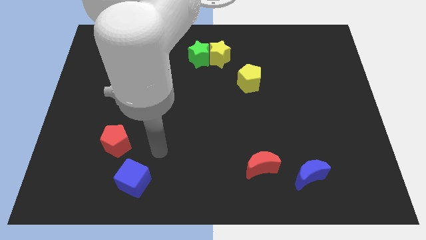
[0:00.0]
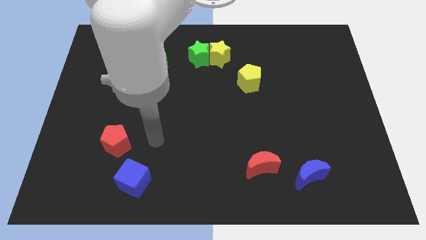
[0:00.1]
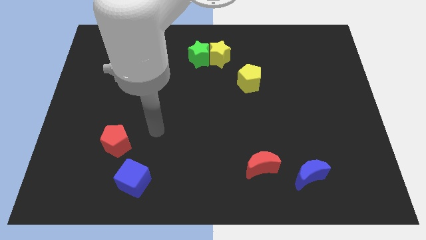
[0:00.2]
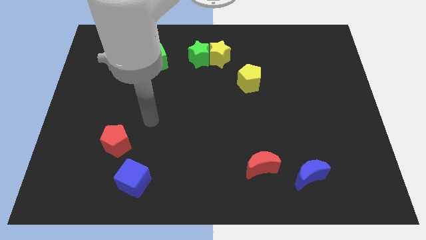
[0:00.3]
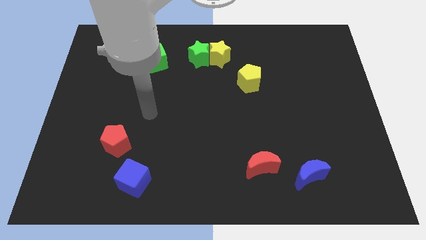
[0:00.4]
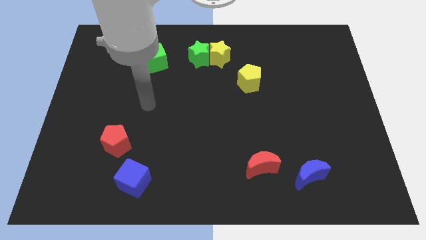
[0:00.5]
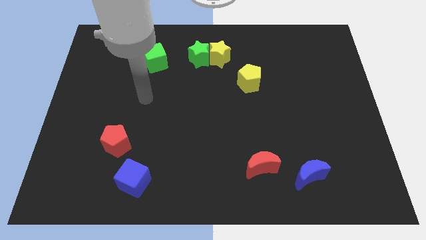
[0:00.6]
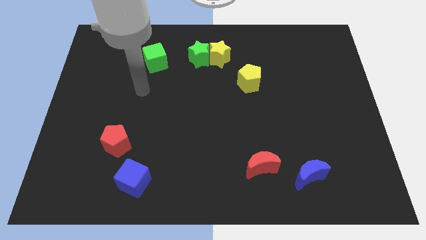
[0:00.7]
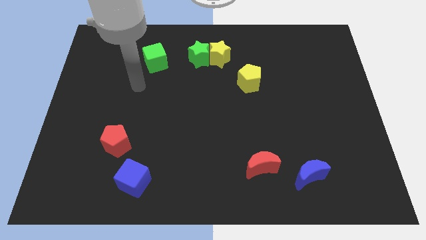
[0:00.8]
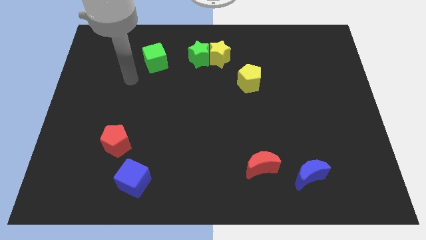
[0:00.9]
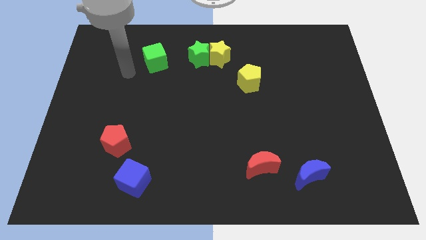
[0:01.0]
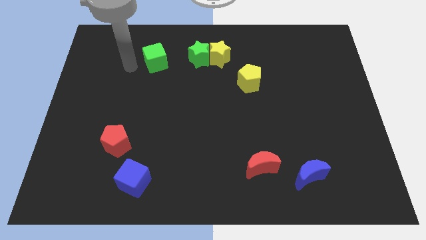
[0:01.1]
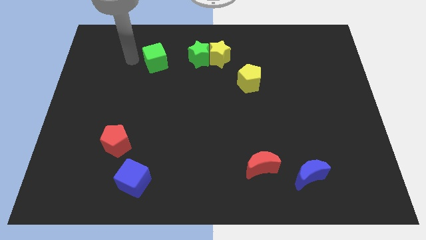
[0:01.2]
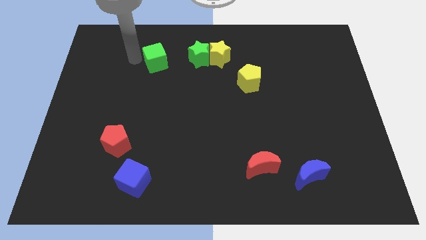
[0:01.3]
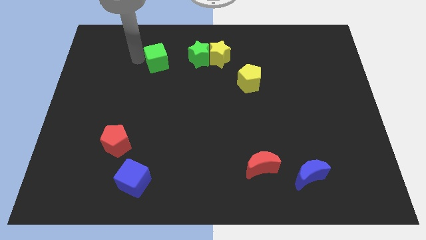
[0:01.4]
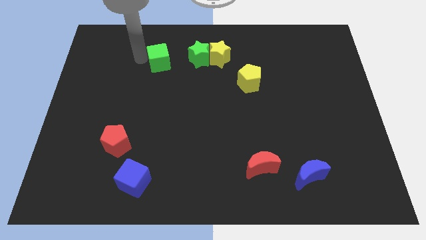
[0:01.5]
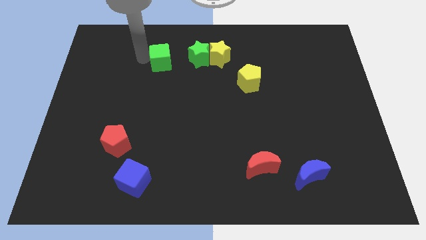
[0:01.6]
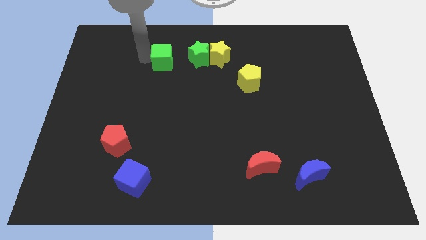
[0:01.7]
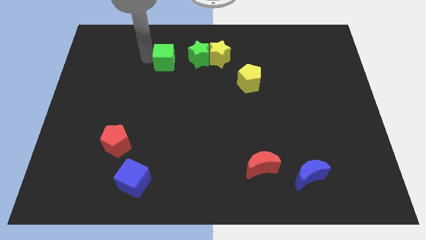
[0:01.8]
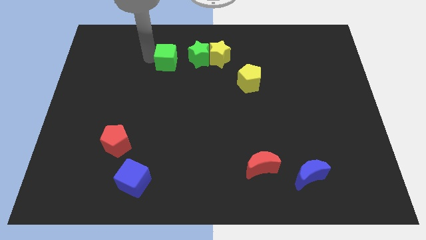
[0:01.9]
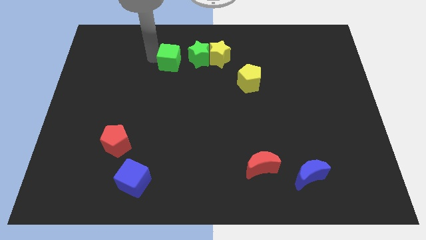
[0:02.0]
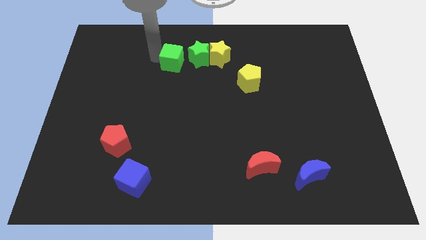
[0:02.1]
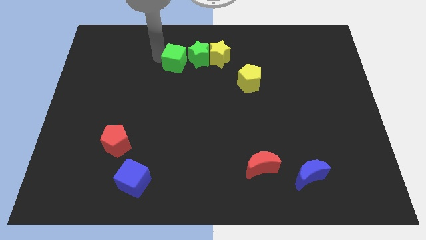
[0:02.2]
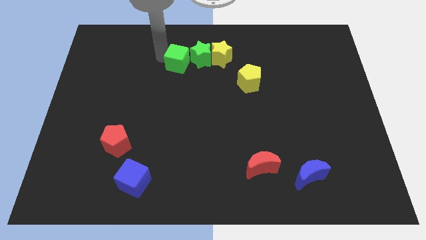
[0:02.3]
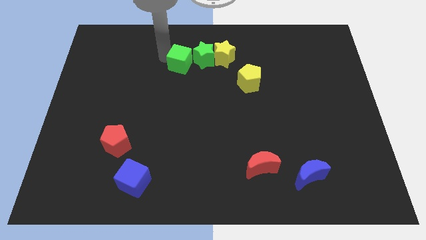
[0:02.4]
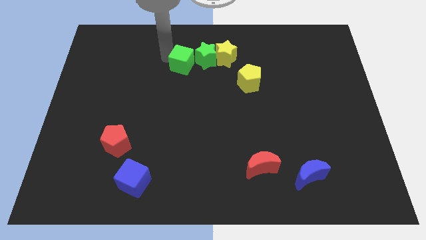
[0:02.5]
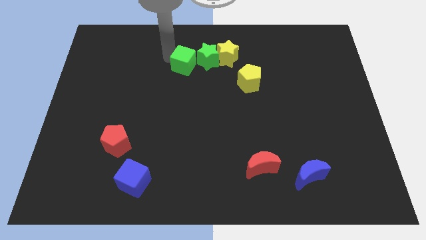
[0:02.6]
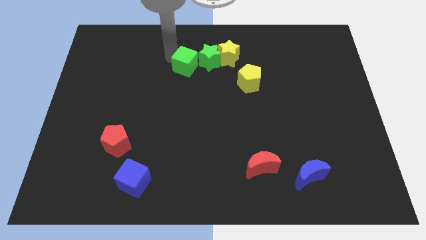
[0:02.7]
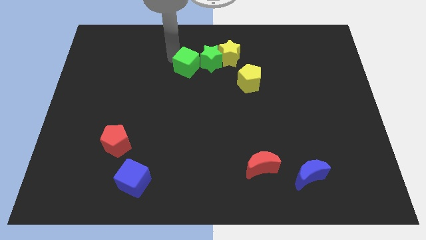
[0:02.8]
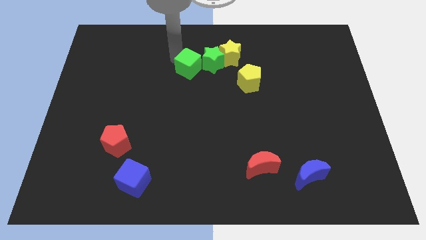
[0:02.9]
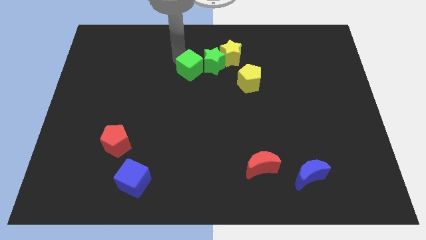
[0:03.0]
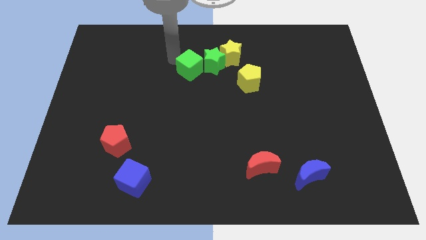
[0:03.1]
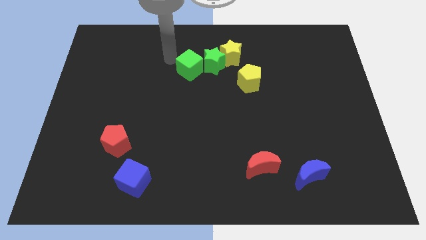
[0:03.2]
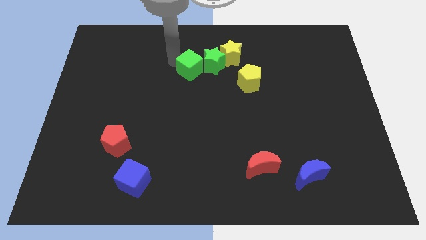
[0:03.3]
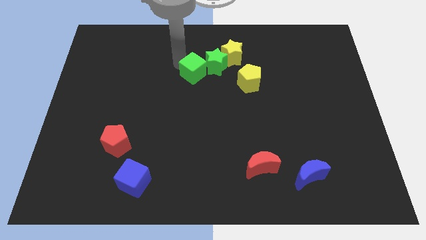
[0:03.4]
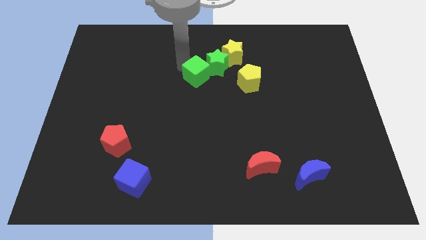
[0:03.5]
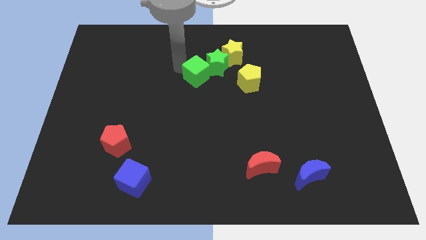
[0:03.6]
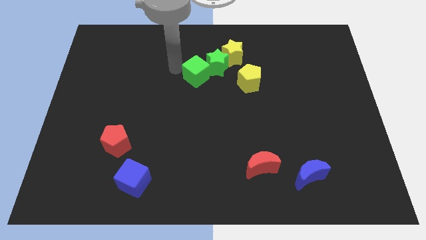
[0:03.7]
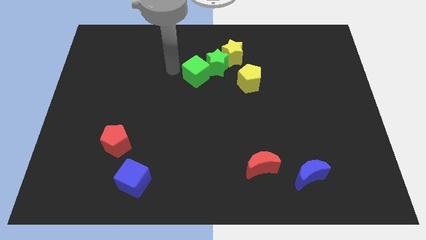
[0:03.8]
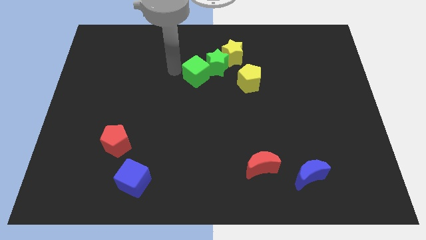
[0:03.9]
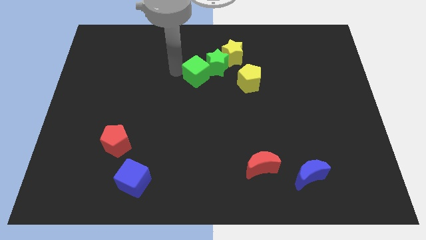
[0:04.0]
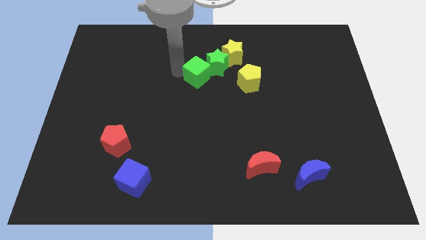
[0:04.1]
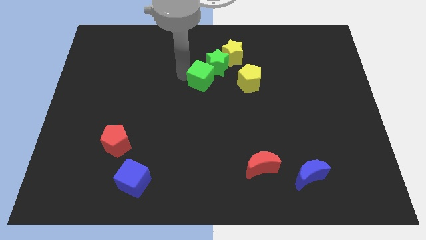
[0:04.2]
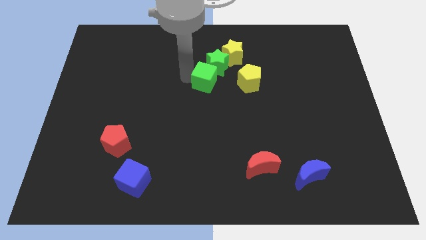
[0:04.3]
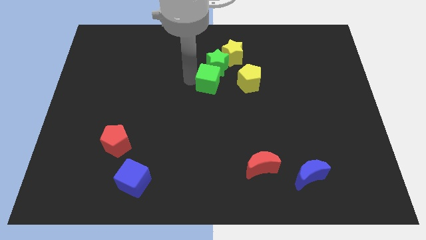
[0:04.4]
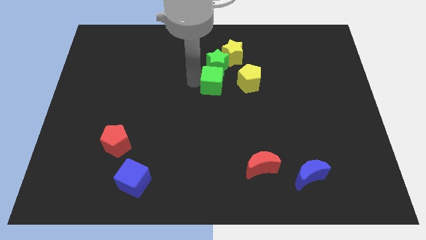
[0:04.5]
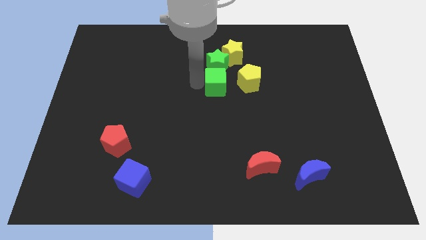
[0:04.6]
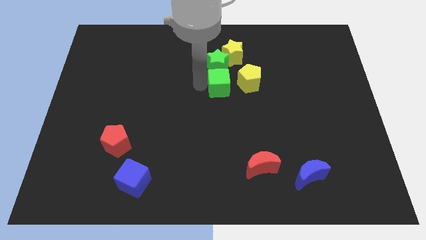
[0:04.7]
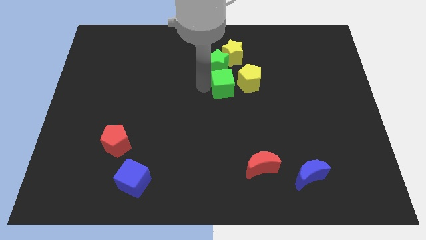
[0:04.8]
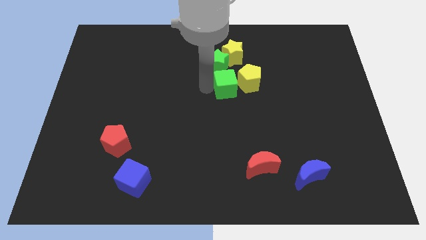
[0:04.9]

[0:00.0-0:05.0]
slide the green cube close to the yellow pentagon

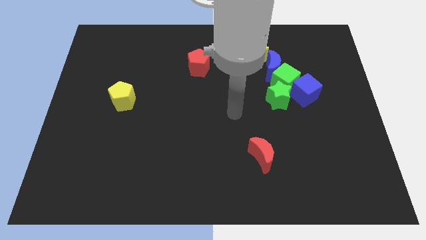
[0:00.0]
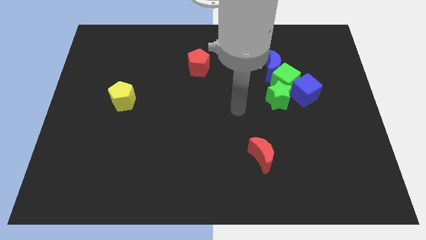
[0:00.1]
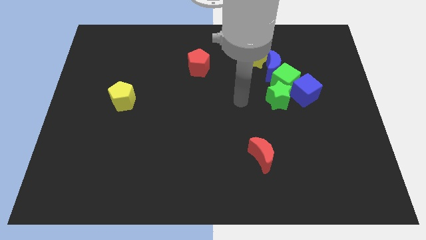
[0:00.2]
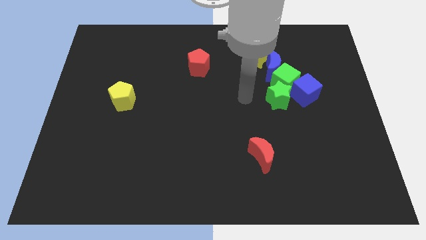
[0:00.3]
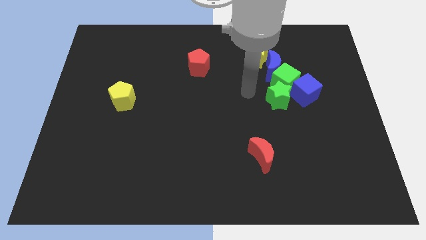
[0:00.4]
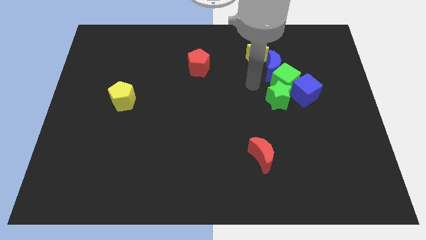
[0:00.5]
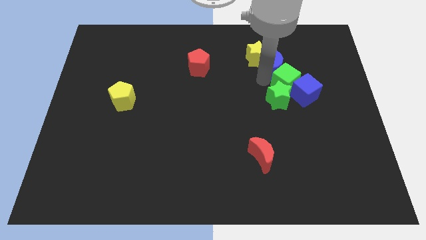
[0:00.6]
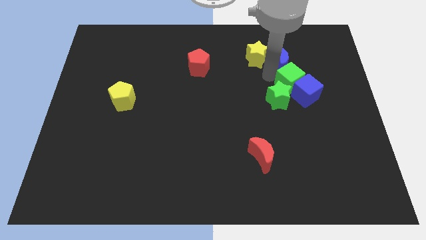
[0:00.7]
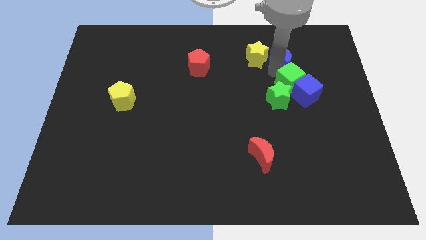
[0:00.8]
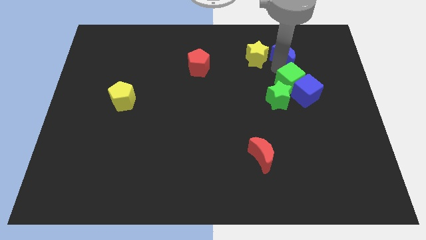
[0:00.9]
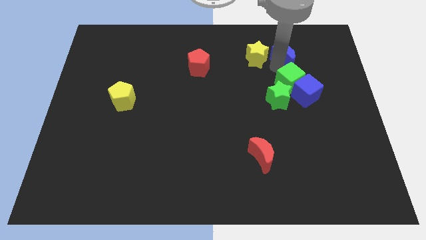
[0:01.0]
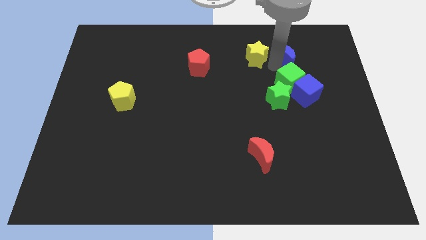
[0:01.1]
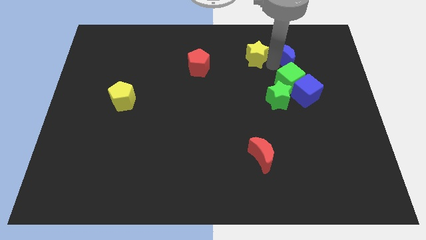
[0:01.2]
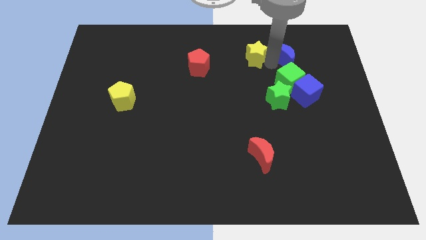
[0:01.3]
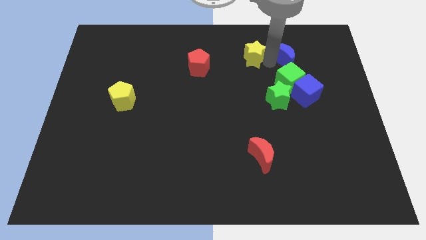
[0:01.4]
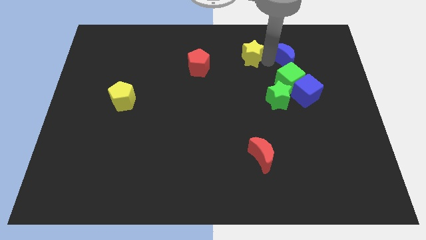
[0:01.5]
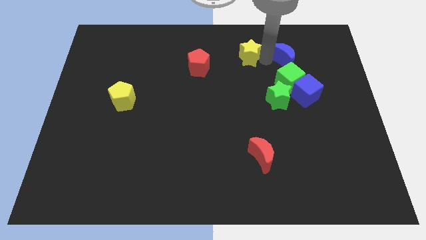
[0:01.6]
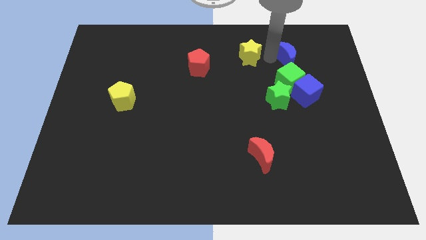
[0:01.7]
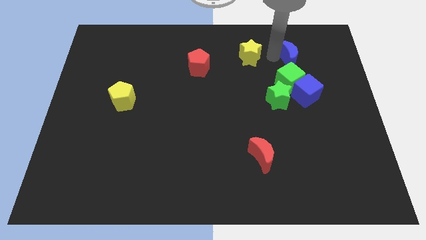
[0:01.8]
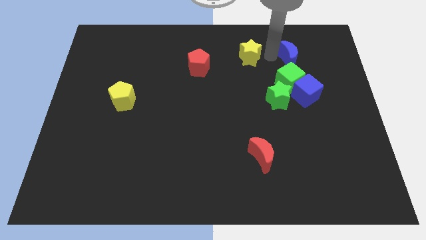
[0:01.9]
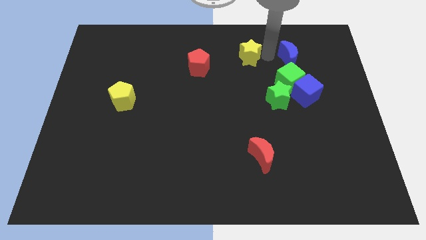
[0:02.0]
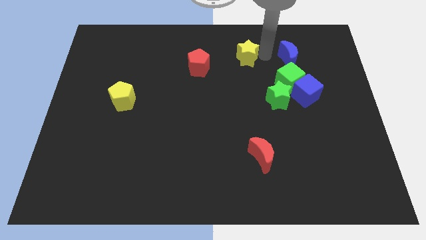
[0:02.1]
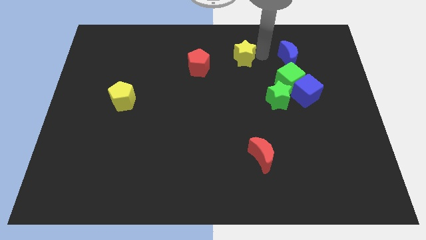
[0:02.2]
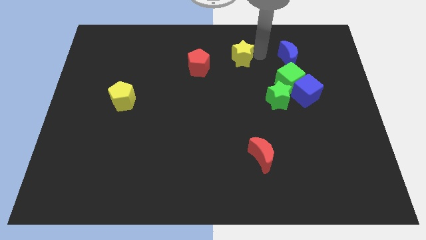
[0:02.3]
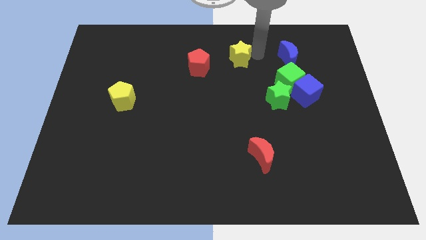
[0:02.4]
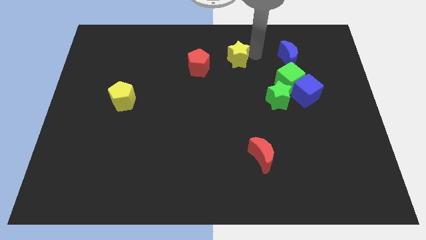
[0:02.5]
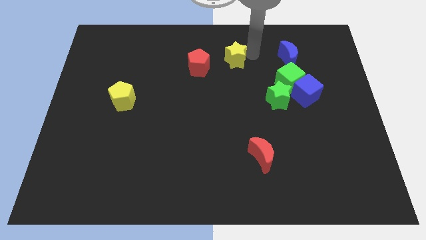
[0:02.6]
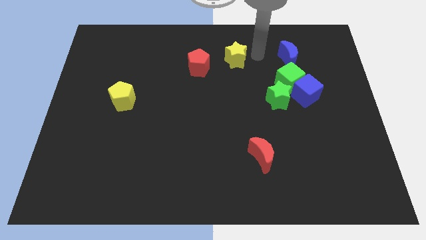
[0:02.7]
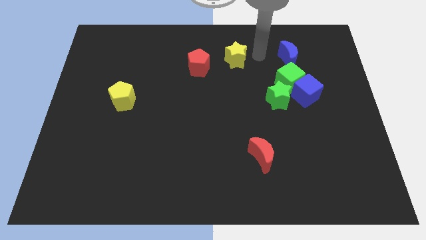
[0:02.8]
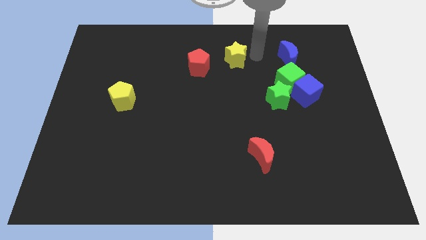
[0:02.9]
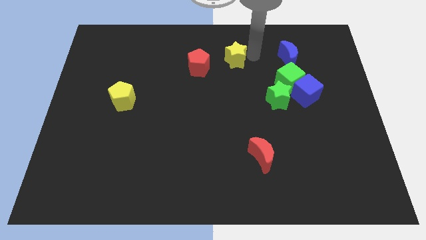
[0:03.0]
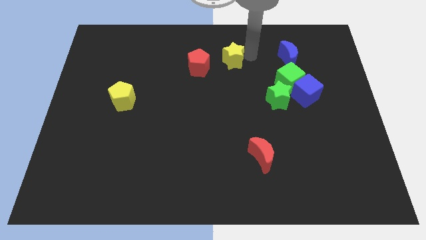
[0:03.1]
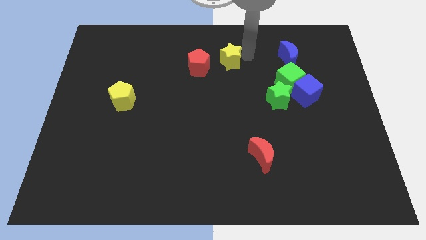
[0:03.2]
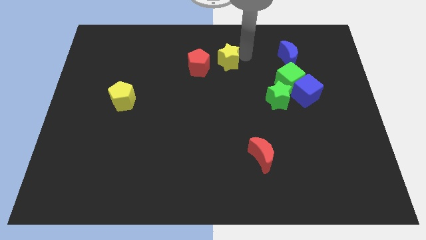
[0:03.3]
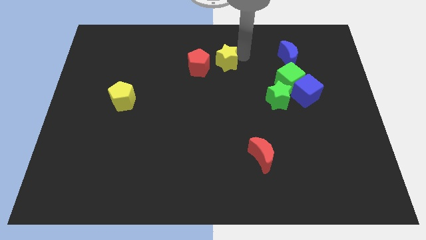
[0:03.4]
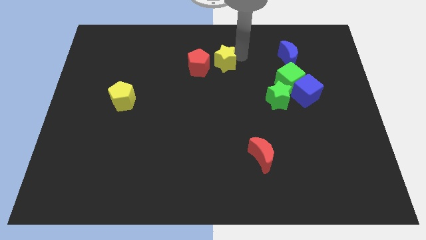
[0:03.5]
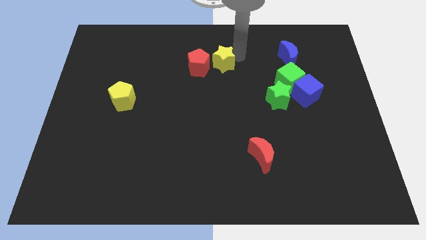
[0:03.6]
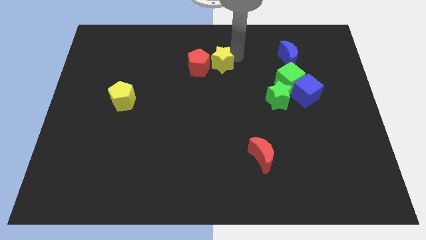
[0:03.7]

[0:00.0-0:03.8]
move the yellow star close to the red pentagon
